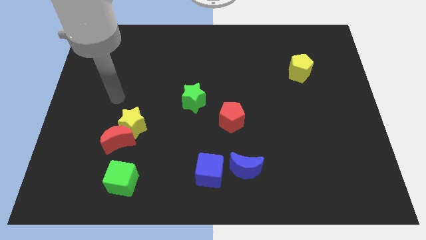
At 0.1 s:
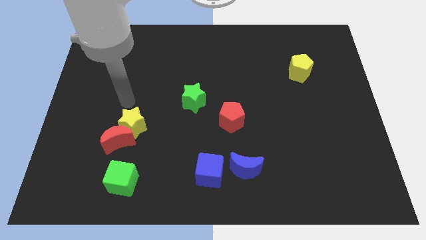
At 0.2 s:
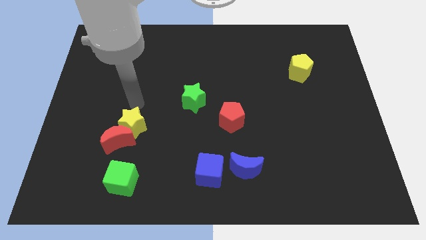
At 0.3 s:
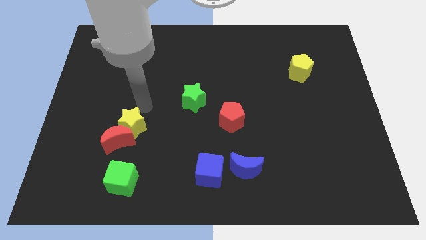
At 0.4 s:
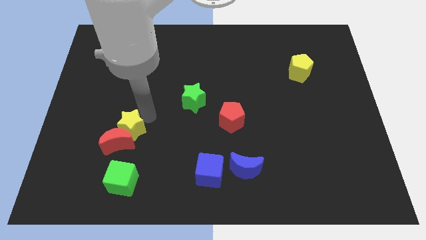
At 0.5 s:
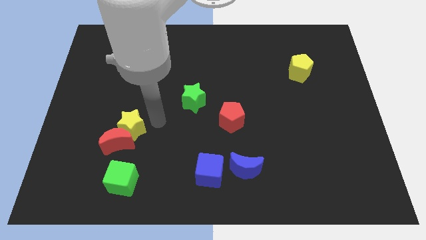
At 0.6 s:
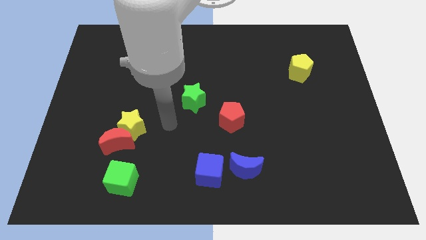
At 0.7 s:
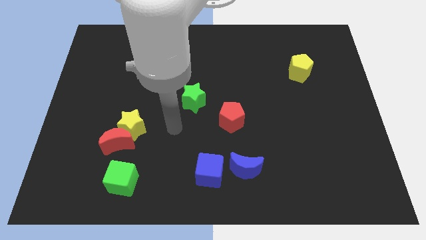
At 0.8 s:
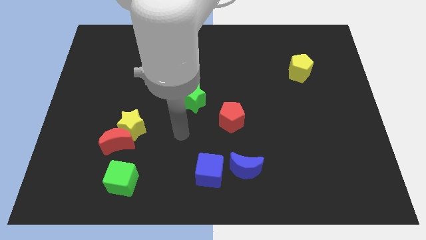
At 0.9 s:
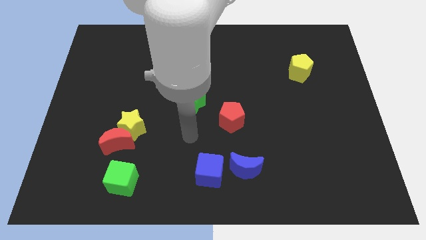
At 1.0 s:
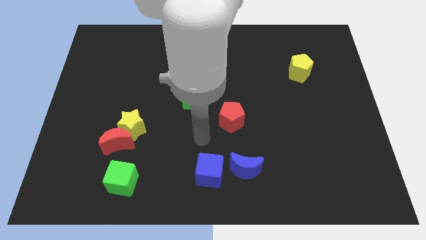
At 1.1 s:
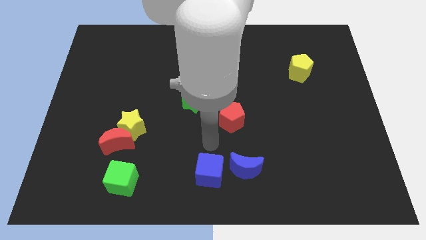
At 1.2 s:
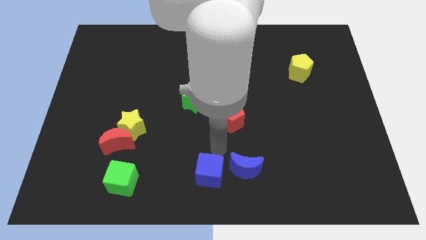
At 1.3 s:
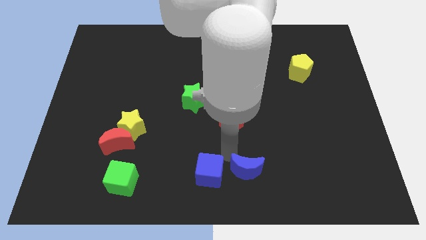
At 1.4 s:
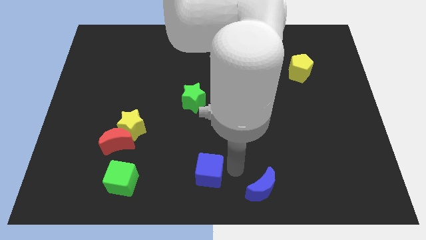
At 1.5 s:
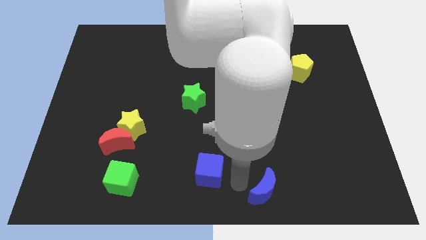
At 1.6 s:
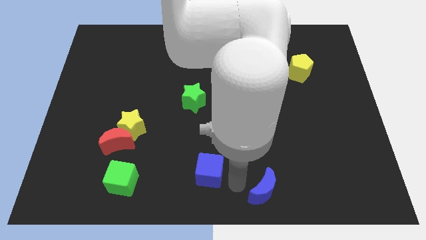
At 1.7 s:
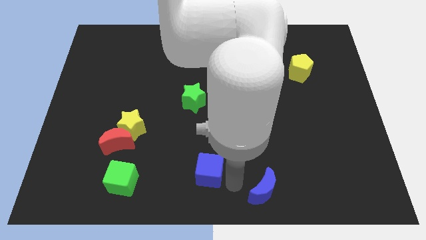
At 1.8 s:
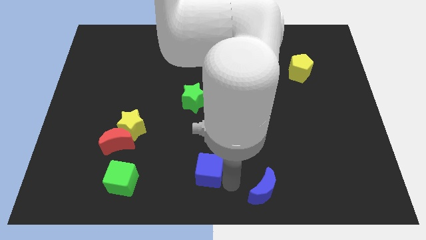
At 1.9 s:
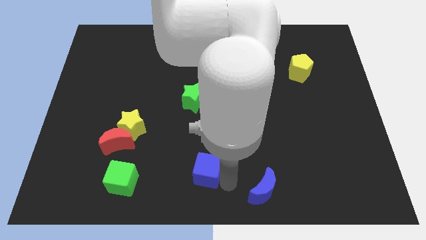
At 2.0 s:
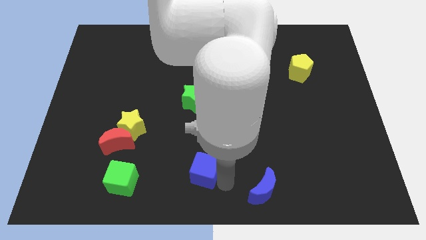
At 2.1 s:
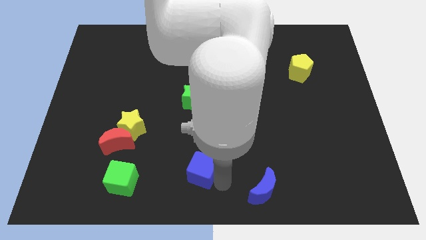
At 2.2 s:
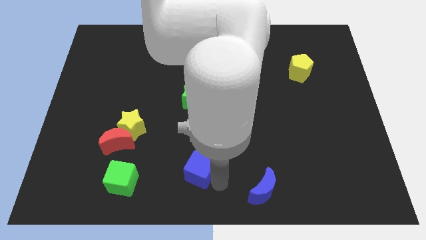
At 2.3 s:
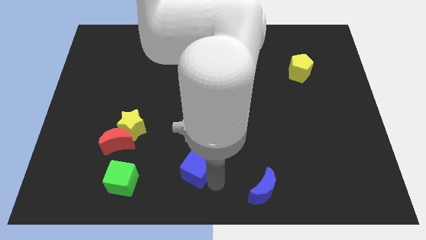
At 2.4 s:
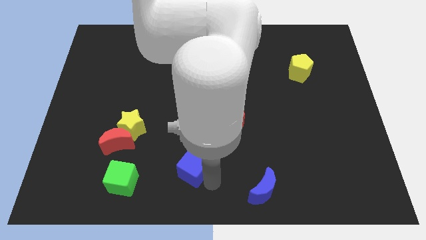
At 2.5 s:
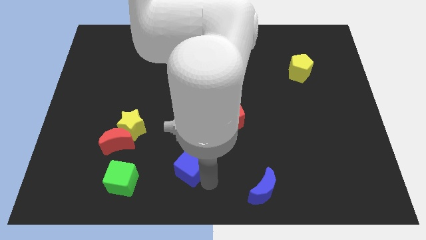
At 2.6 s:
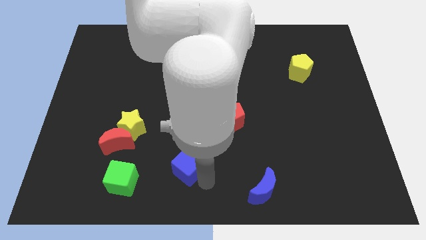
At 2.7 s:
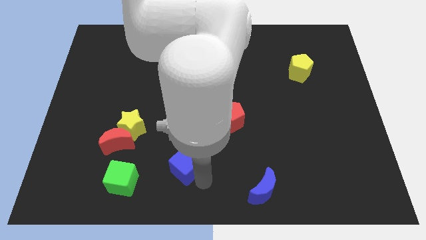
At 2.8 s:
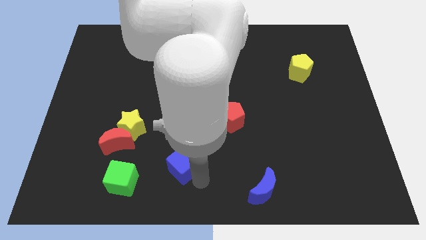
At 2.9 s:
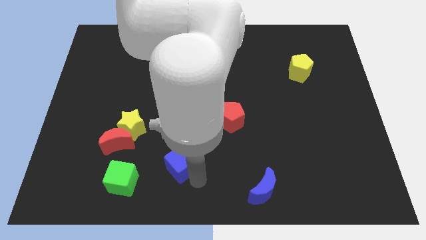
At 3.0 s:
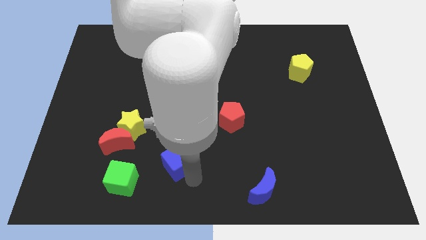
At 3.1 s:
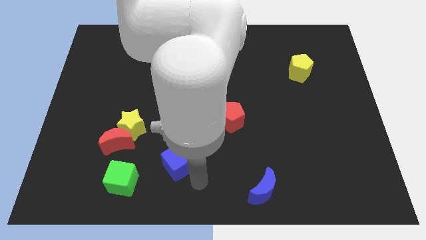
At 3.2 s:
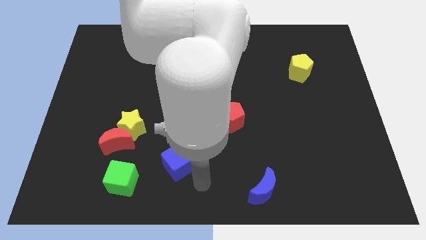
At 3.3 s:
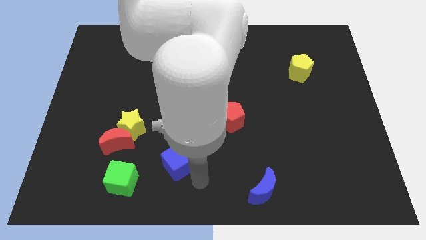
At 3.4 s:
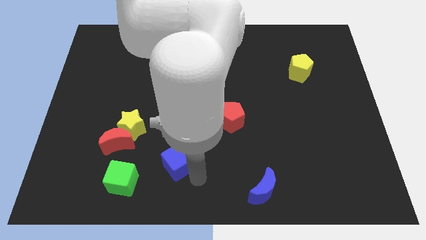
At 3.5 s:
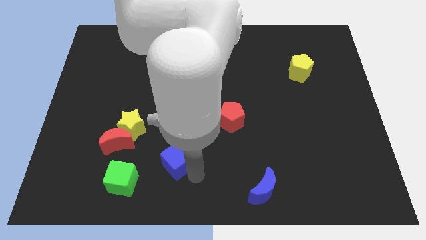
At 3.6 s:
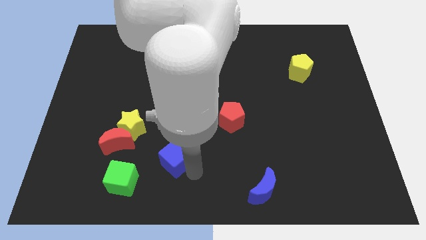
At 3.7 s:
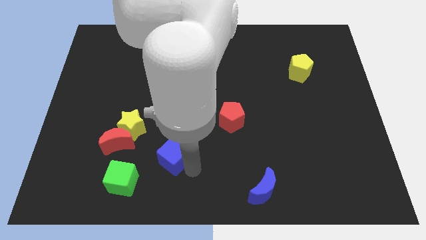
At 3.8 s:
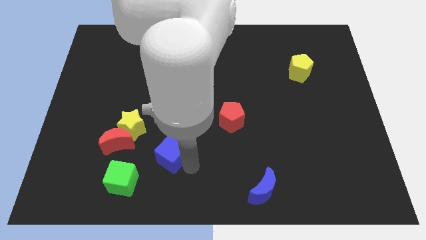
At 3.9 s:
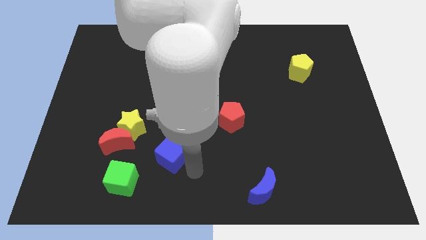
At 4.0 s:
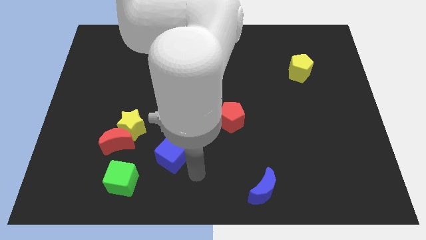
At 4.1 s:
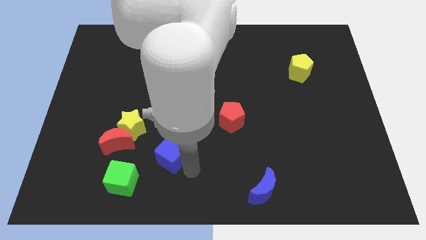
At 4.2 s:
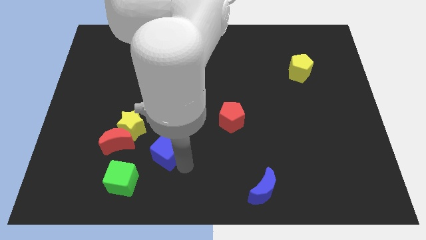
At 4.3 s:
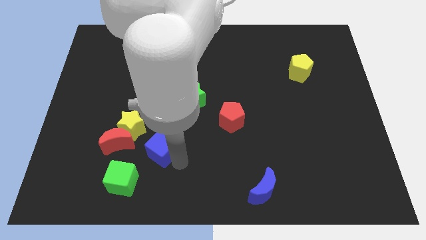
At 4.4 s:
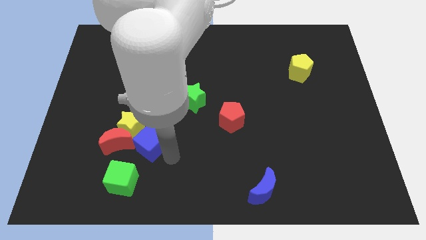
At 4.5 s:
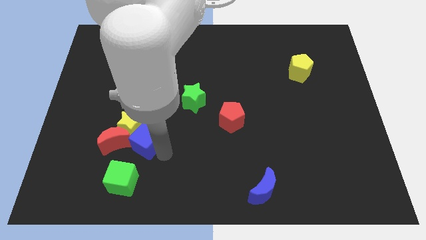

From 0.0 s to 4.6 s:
push the blue cube next to the yellow star

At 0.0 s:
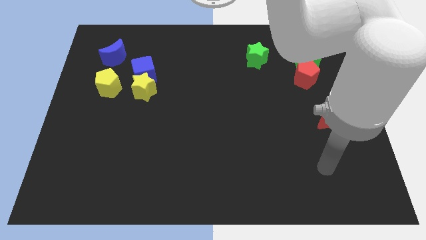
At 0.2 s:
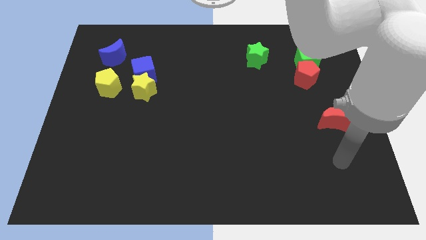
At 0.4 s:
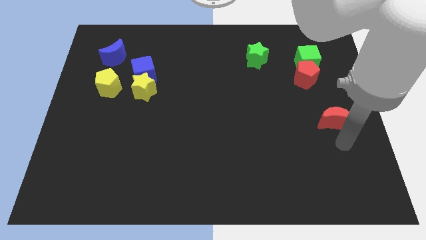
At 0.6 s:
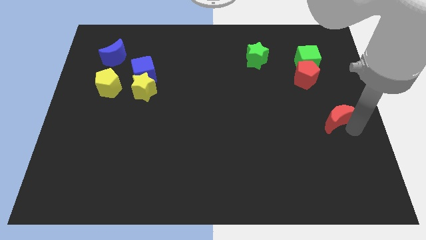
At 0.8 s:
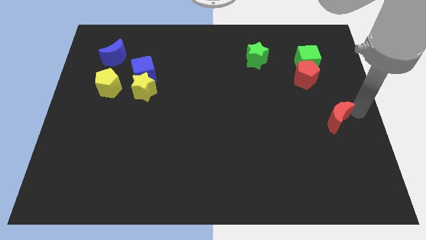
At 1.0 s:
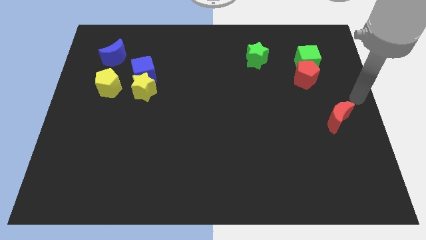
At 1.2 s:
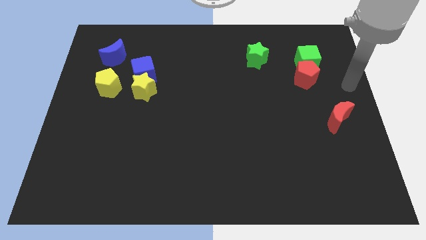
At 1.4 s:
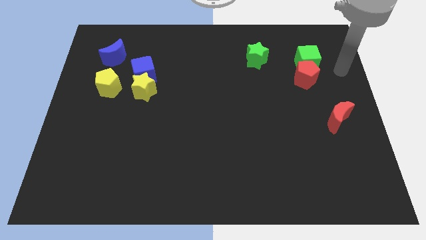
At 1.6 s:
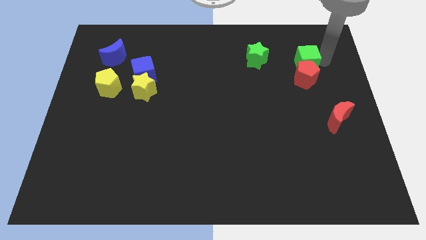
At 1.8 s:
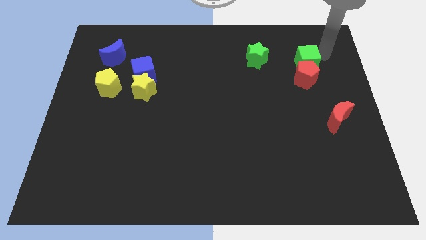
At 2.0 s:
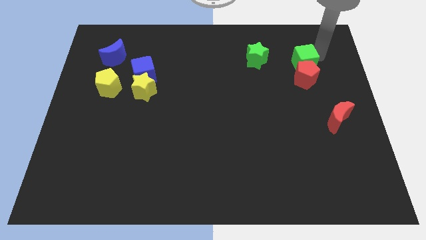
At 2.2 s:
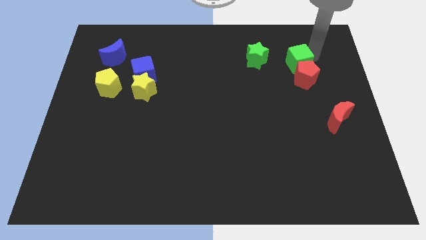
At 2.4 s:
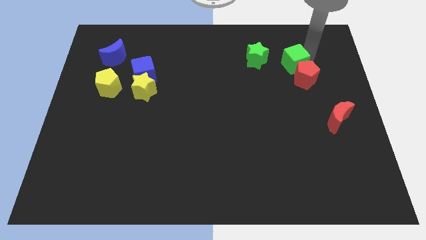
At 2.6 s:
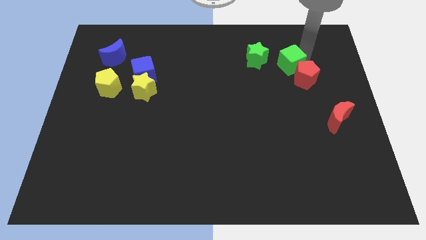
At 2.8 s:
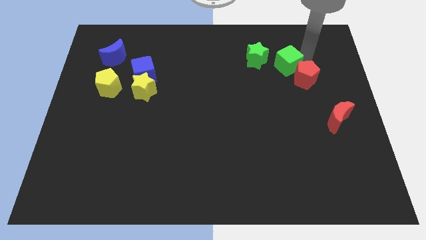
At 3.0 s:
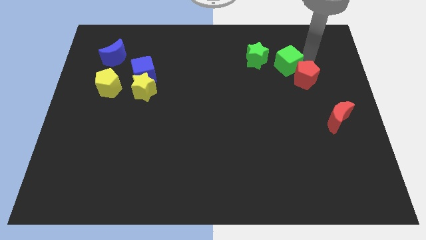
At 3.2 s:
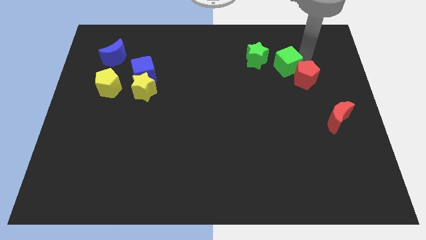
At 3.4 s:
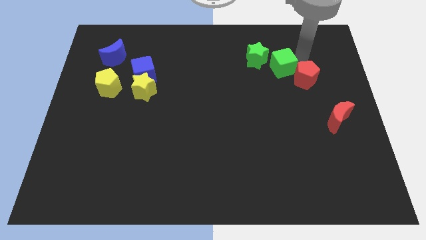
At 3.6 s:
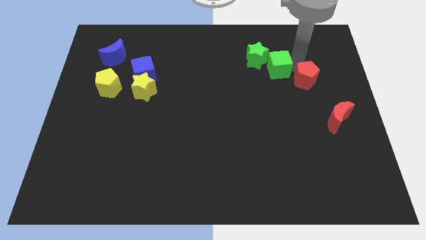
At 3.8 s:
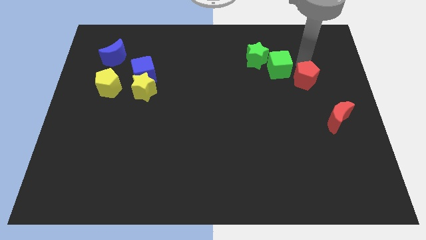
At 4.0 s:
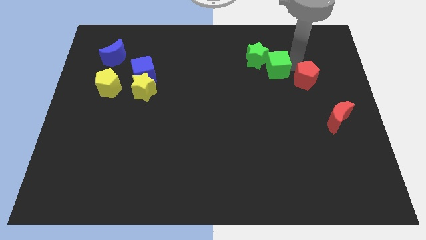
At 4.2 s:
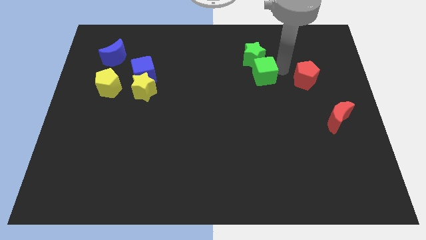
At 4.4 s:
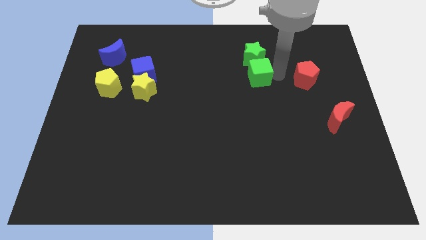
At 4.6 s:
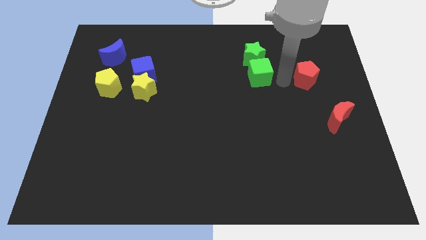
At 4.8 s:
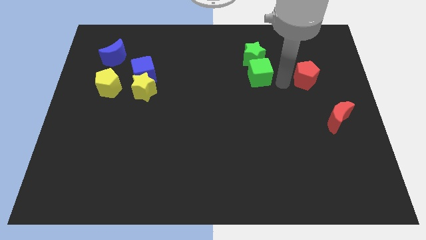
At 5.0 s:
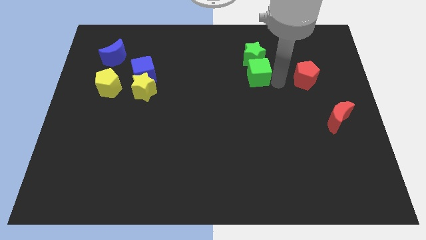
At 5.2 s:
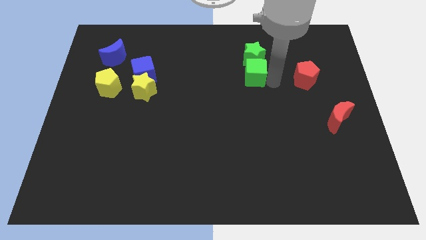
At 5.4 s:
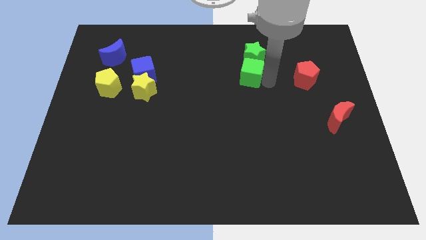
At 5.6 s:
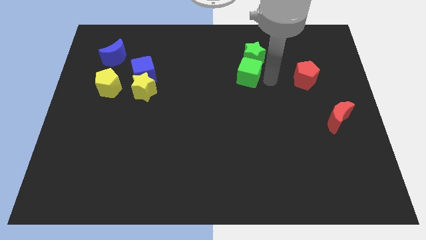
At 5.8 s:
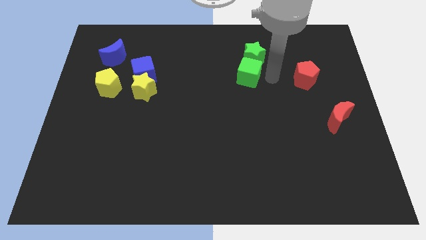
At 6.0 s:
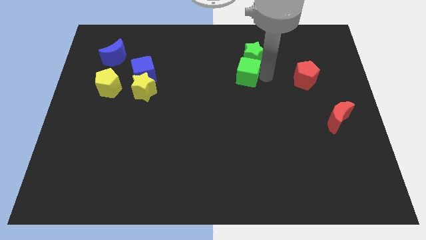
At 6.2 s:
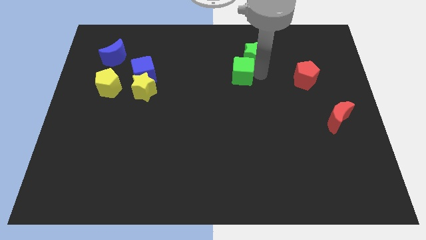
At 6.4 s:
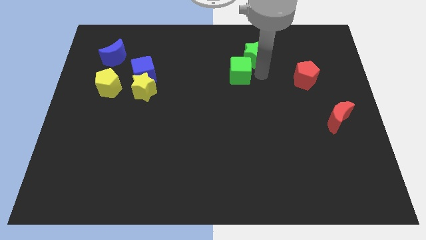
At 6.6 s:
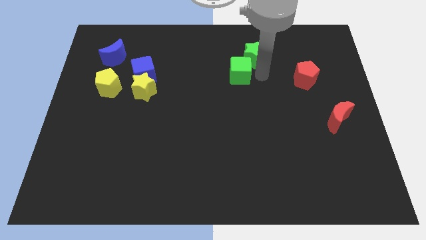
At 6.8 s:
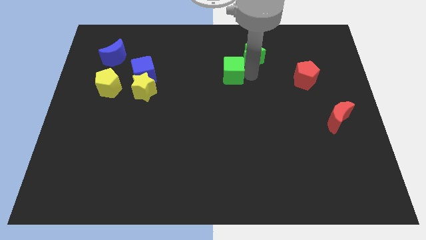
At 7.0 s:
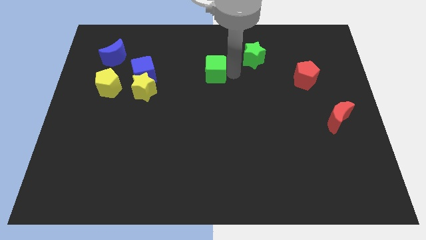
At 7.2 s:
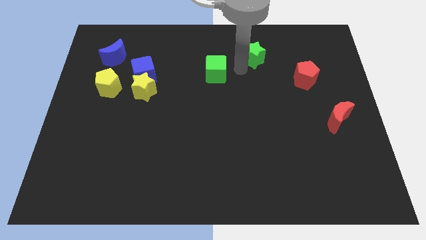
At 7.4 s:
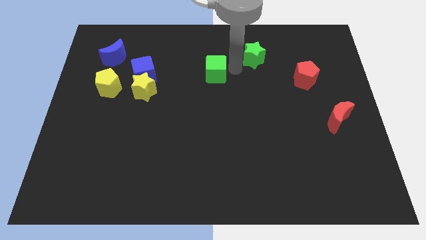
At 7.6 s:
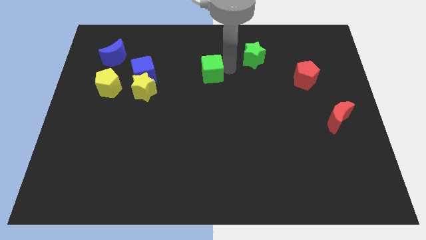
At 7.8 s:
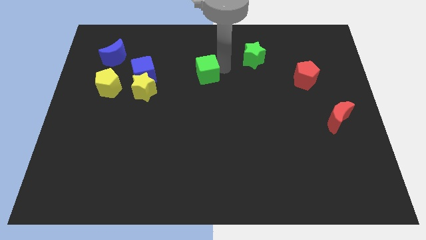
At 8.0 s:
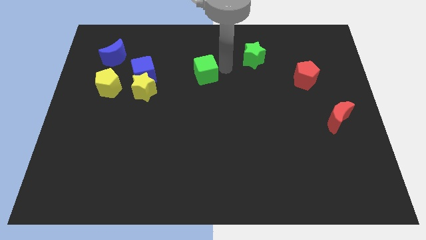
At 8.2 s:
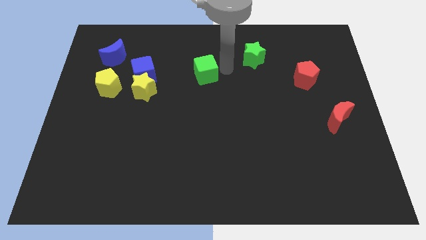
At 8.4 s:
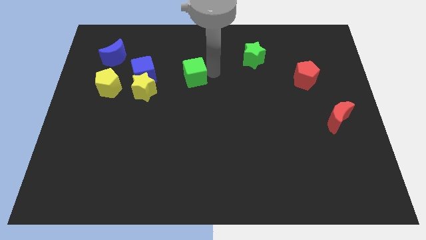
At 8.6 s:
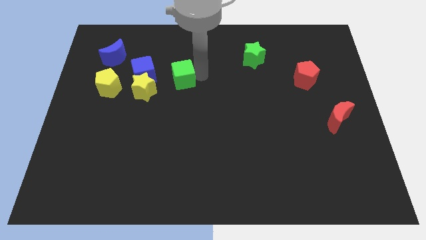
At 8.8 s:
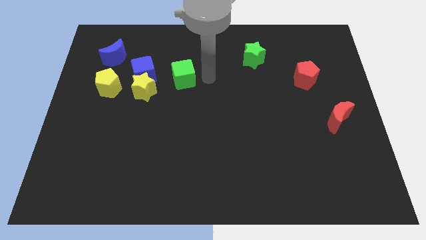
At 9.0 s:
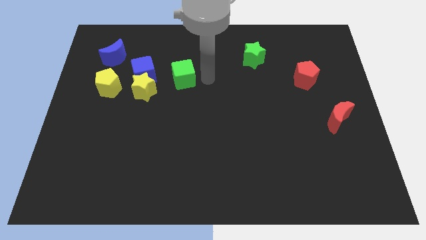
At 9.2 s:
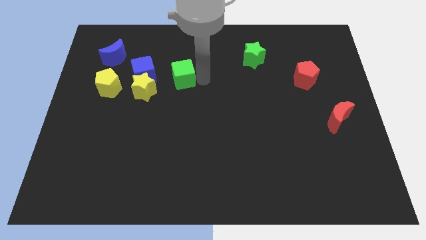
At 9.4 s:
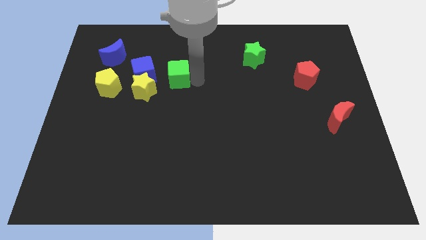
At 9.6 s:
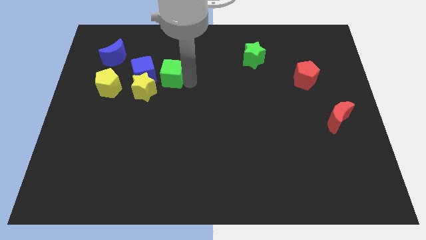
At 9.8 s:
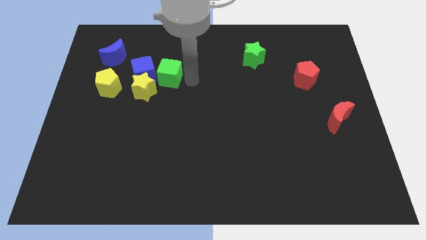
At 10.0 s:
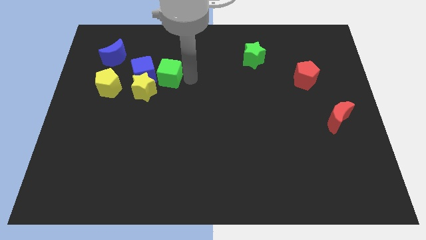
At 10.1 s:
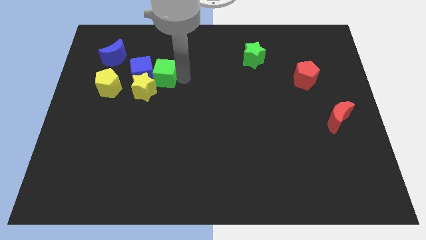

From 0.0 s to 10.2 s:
put the green cube close to the blue cube
